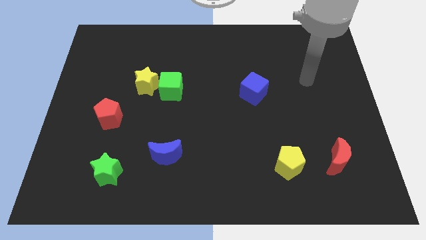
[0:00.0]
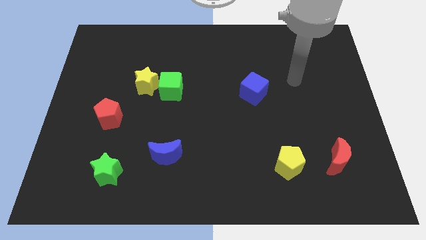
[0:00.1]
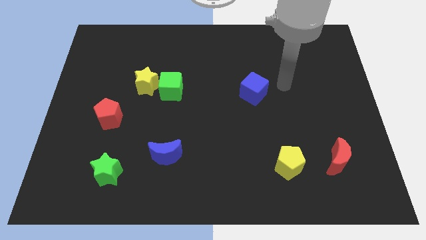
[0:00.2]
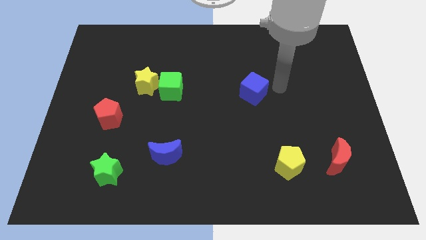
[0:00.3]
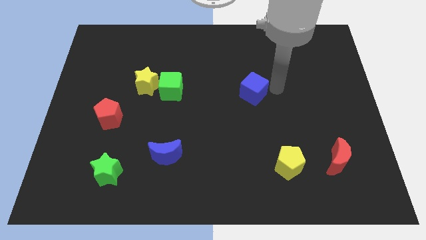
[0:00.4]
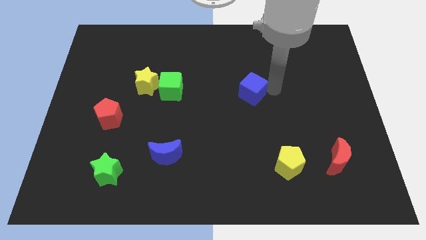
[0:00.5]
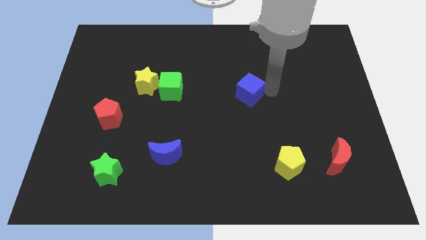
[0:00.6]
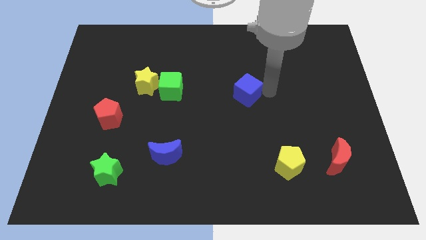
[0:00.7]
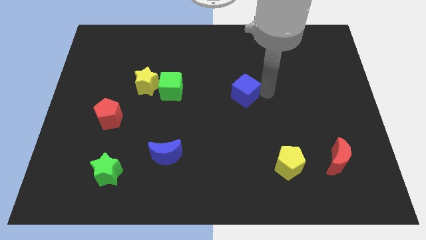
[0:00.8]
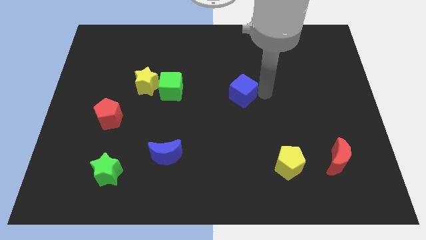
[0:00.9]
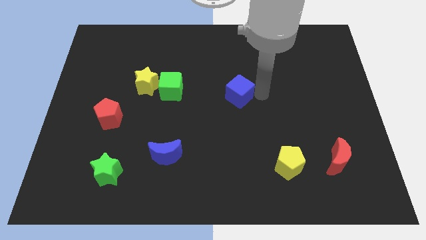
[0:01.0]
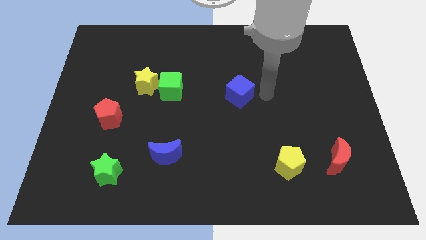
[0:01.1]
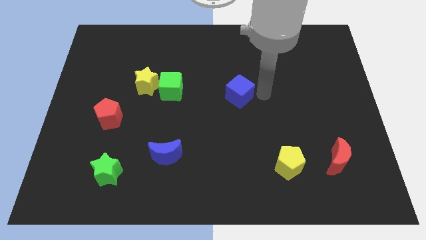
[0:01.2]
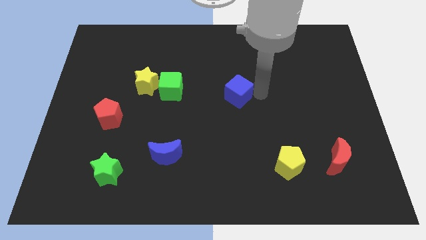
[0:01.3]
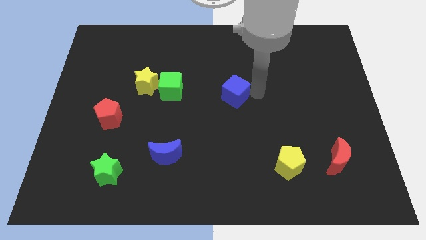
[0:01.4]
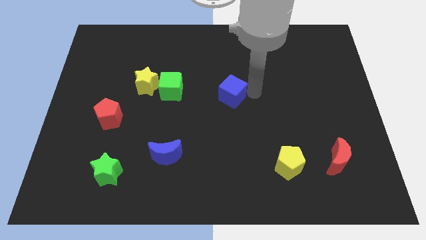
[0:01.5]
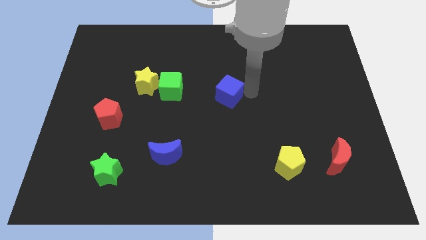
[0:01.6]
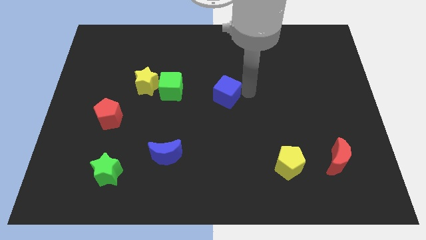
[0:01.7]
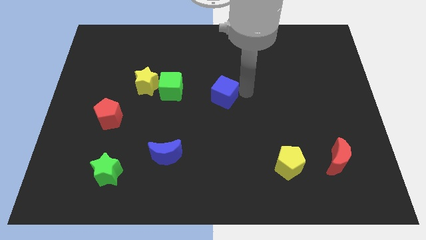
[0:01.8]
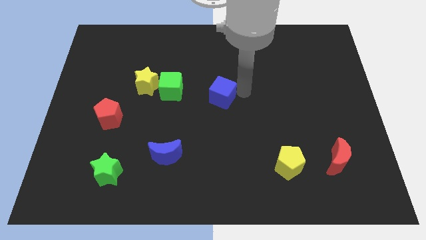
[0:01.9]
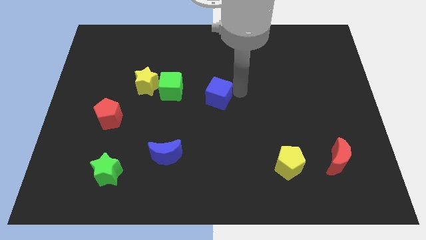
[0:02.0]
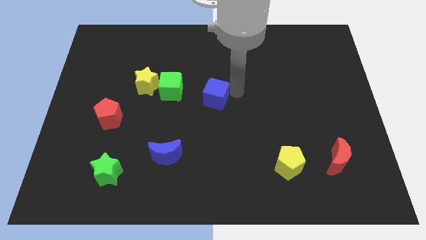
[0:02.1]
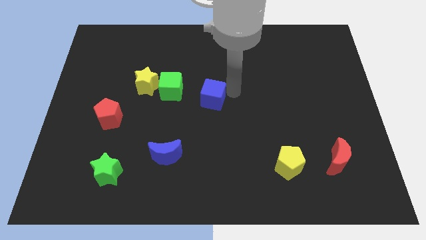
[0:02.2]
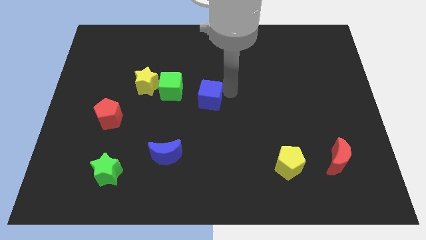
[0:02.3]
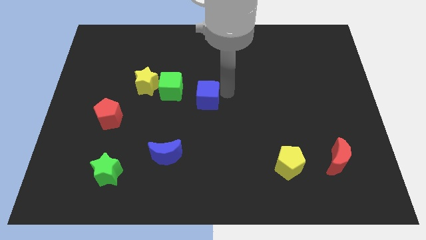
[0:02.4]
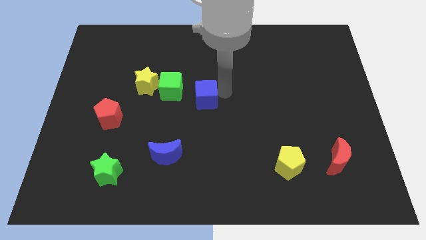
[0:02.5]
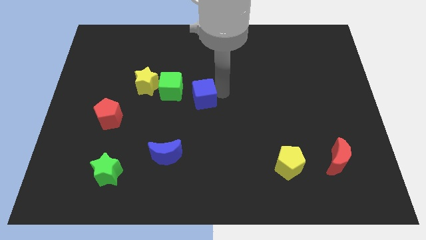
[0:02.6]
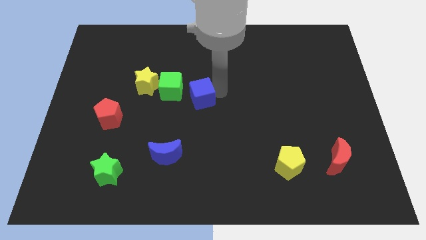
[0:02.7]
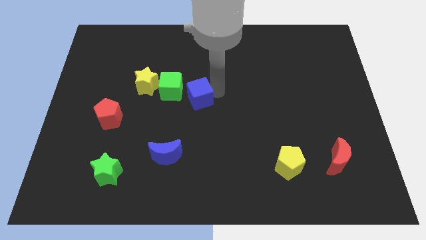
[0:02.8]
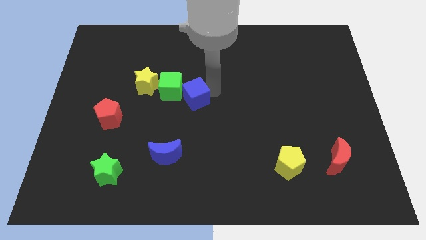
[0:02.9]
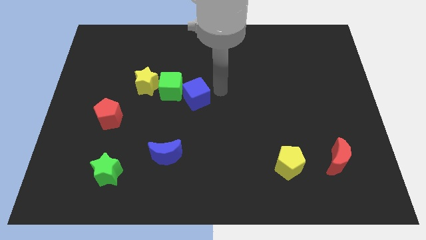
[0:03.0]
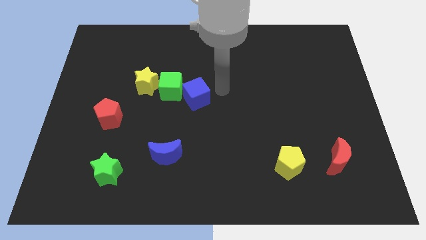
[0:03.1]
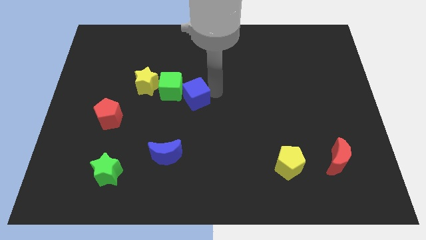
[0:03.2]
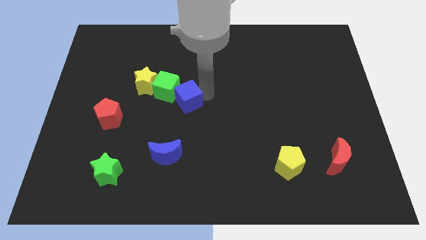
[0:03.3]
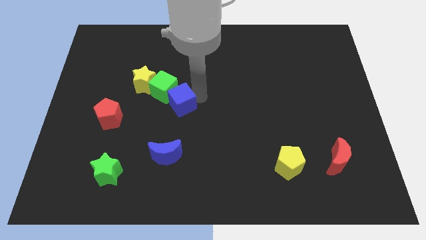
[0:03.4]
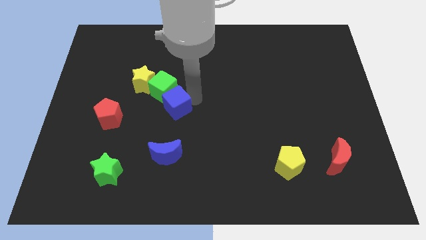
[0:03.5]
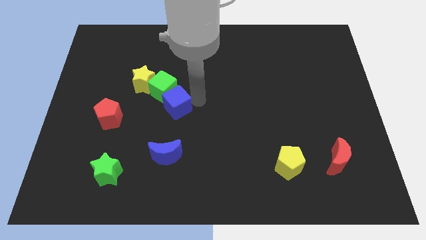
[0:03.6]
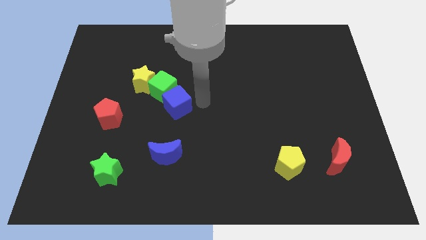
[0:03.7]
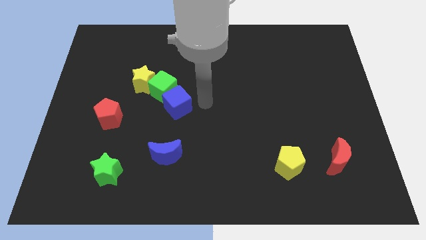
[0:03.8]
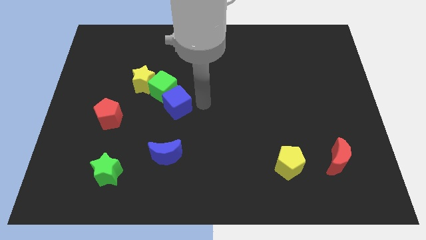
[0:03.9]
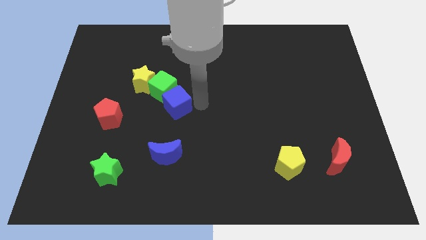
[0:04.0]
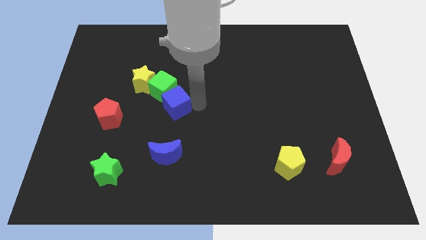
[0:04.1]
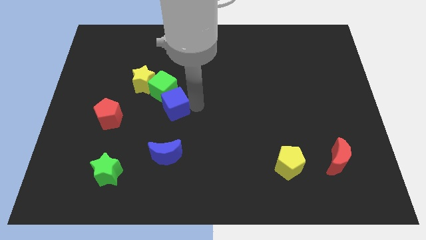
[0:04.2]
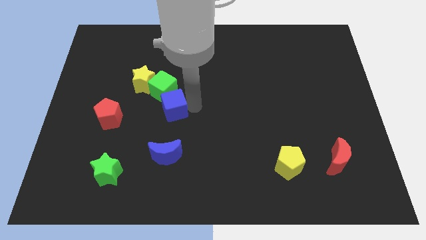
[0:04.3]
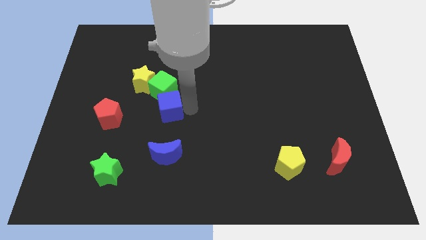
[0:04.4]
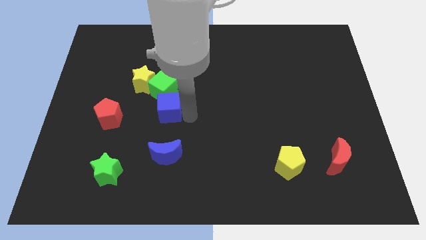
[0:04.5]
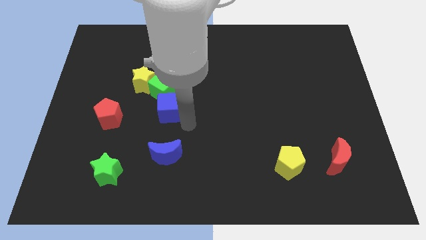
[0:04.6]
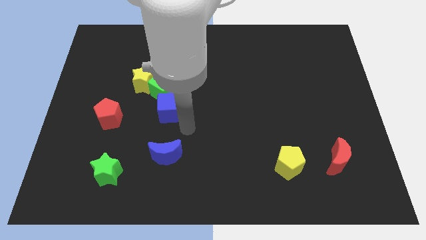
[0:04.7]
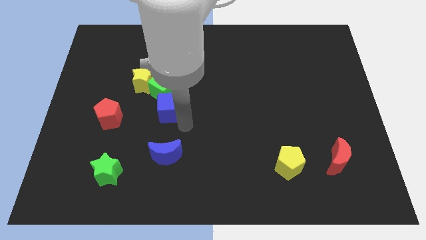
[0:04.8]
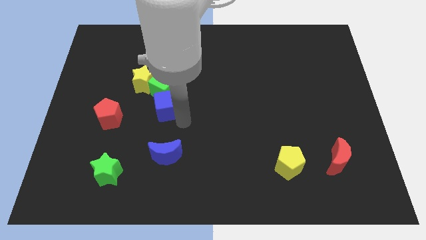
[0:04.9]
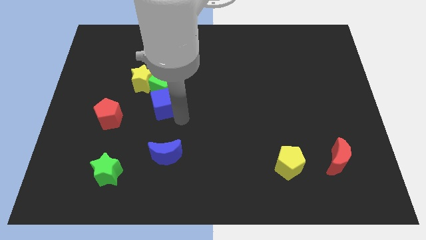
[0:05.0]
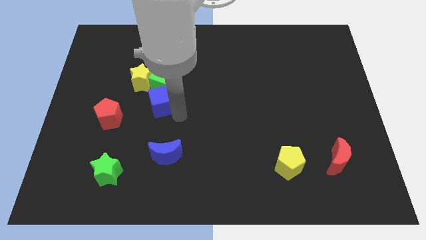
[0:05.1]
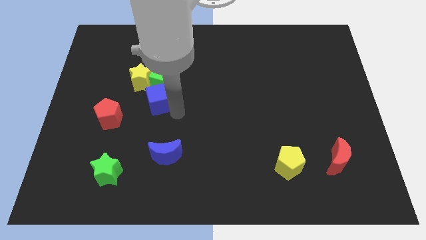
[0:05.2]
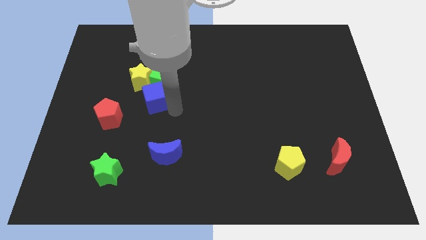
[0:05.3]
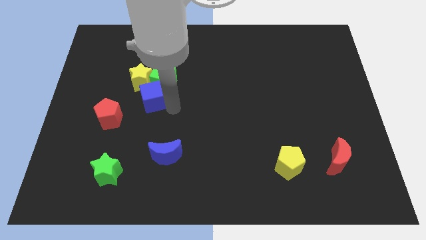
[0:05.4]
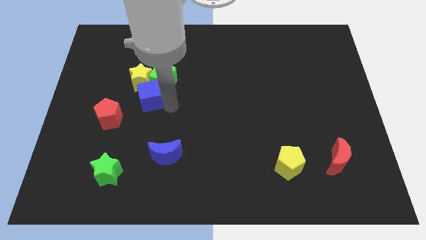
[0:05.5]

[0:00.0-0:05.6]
push the blue cube to the yellow star

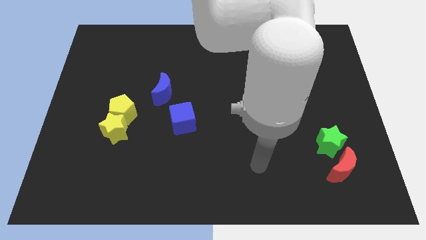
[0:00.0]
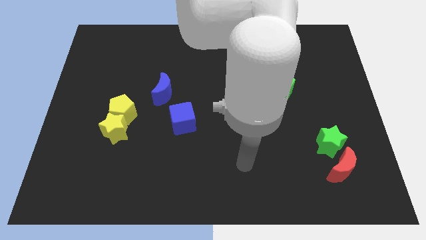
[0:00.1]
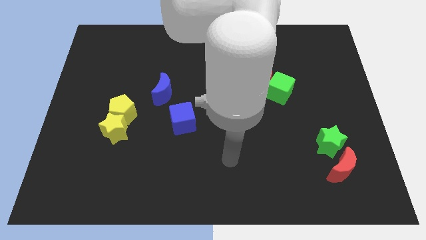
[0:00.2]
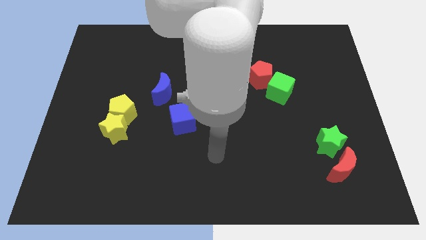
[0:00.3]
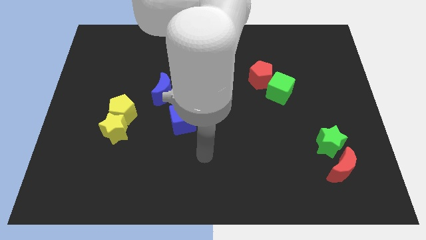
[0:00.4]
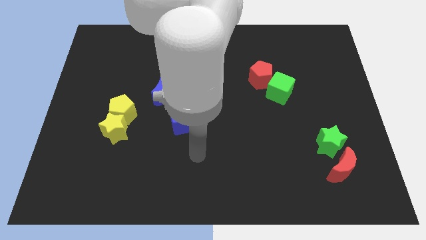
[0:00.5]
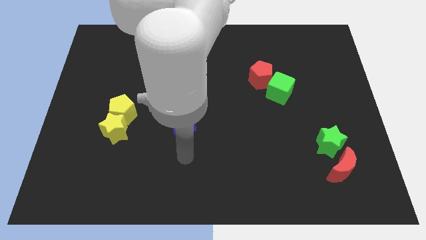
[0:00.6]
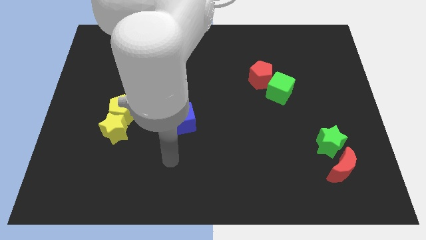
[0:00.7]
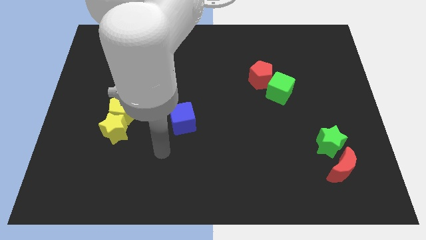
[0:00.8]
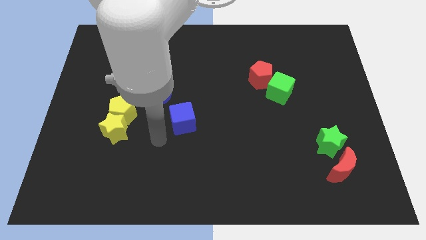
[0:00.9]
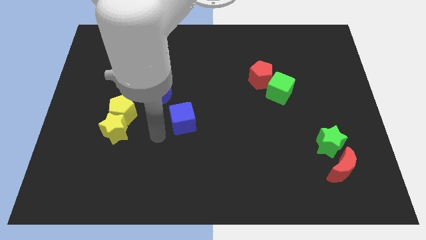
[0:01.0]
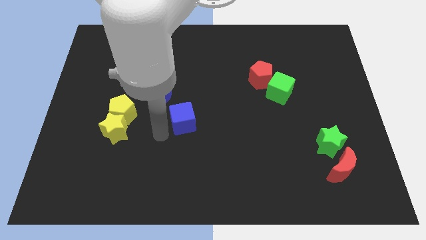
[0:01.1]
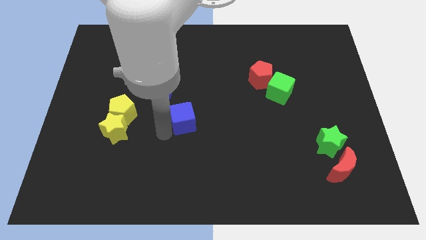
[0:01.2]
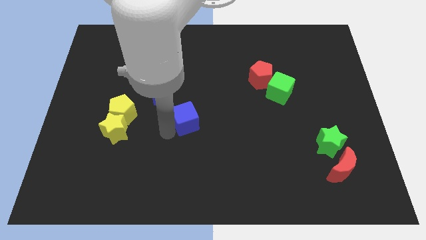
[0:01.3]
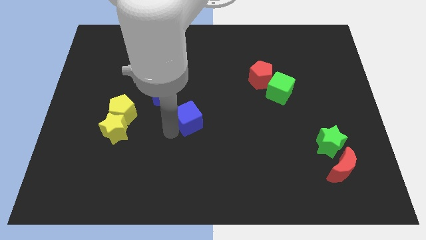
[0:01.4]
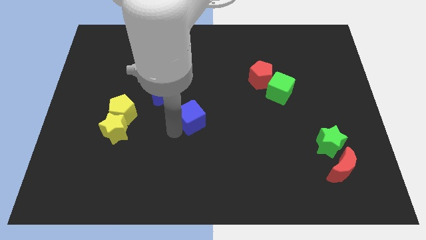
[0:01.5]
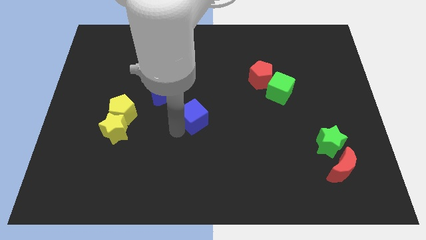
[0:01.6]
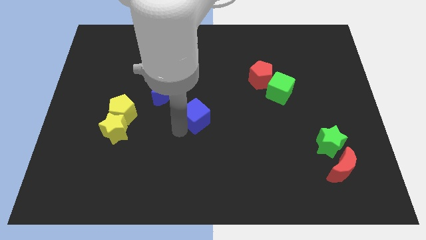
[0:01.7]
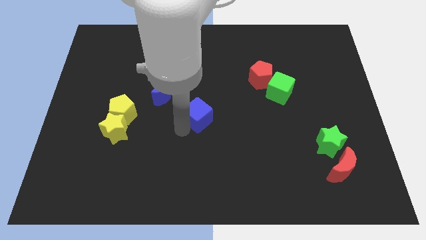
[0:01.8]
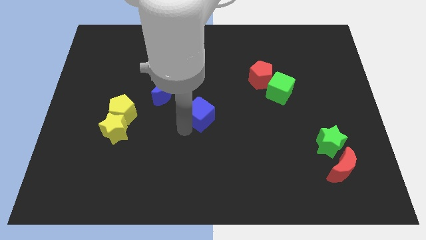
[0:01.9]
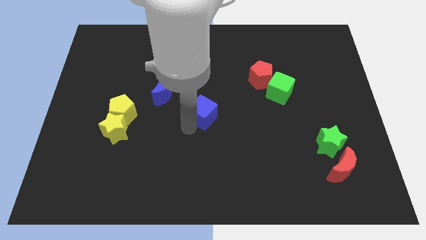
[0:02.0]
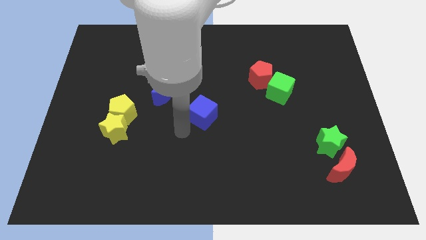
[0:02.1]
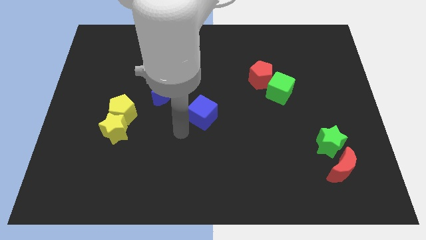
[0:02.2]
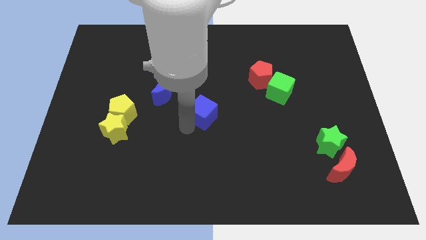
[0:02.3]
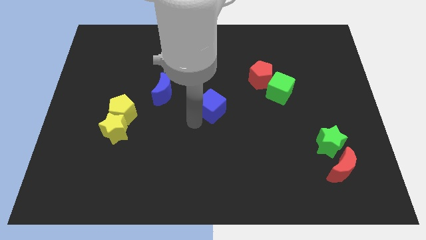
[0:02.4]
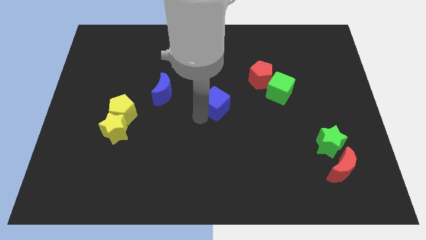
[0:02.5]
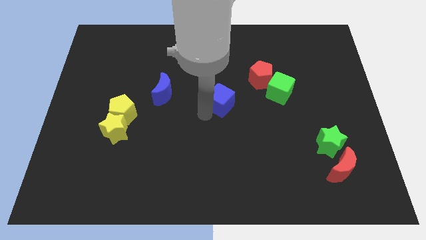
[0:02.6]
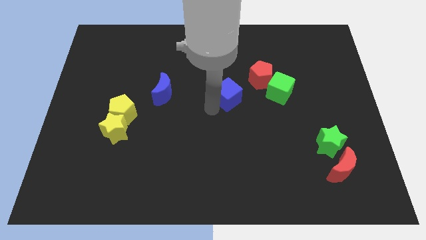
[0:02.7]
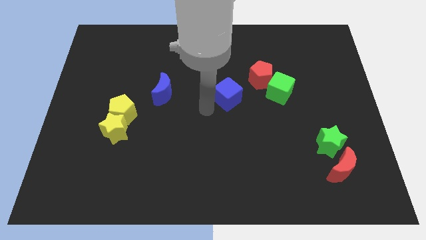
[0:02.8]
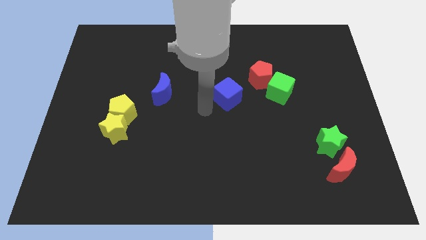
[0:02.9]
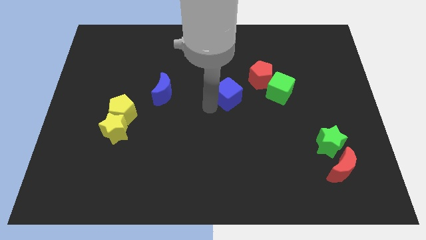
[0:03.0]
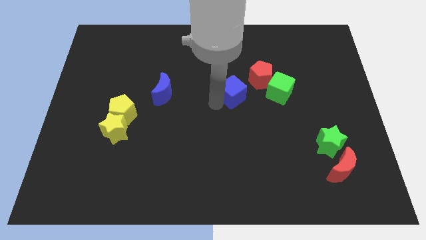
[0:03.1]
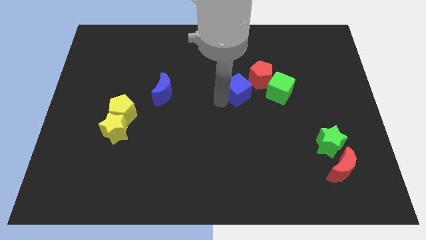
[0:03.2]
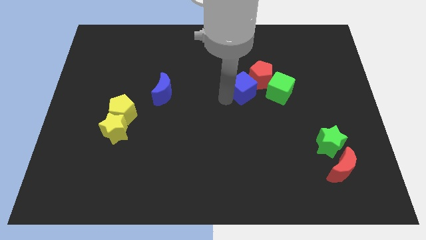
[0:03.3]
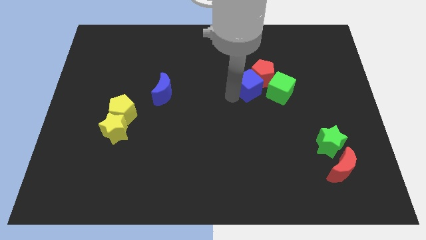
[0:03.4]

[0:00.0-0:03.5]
push the blue cube towards the red pentagon
